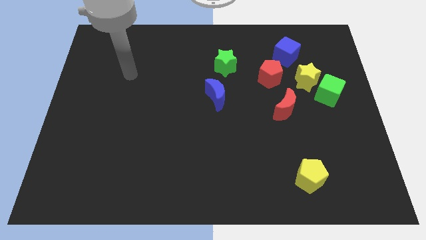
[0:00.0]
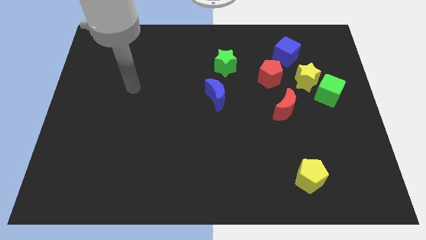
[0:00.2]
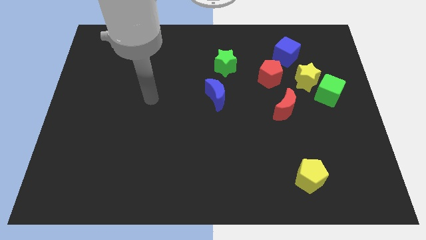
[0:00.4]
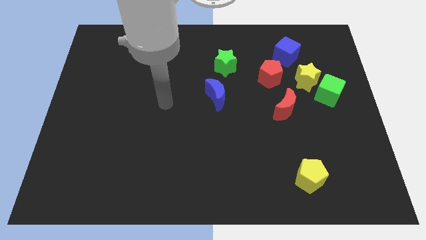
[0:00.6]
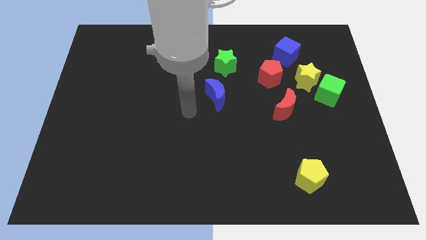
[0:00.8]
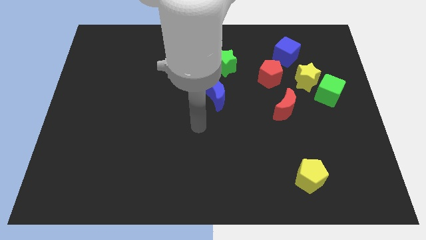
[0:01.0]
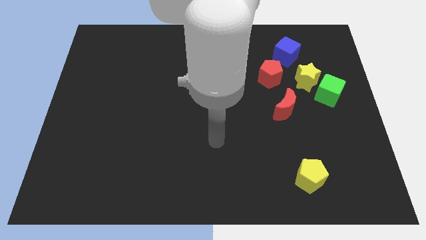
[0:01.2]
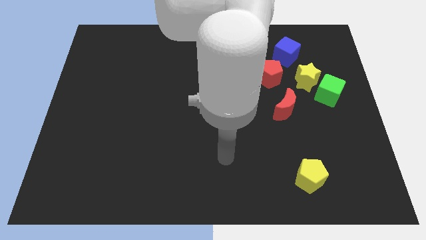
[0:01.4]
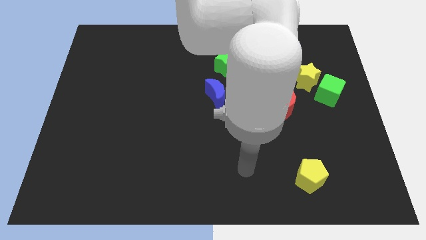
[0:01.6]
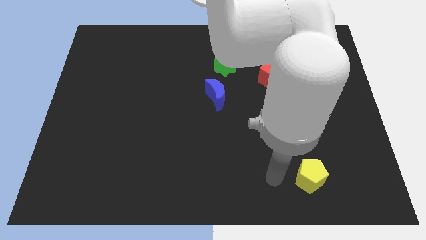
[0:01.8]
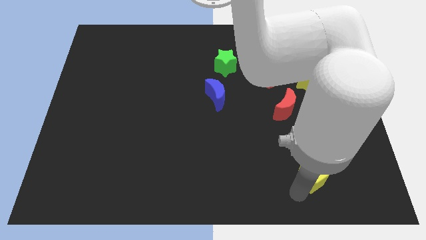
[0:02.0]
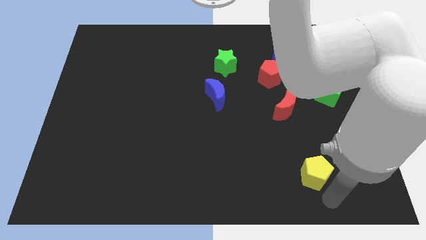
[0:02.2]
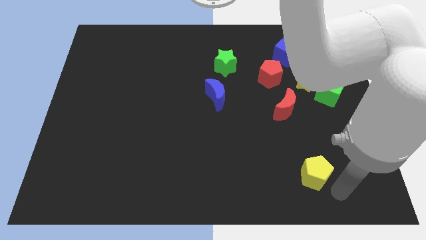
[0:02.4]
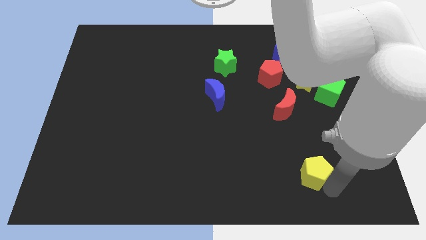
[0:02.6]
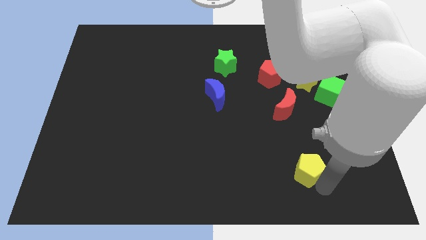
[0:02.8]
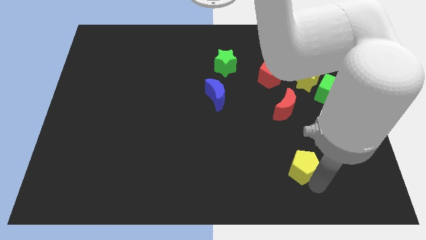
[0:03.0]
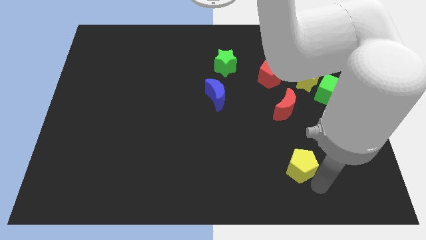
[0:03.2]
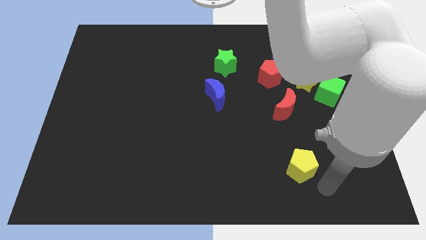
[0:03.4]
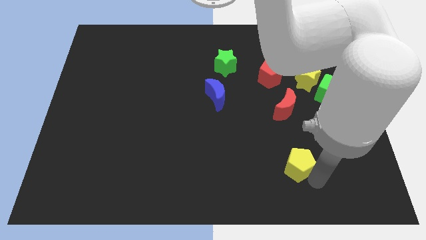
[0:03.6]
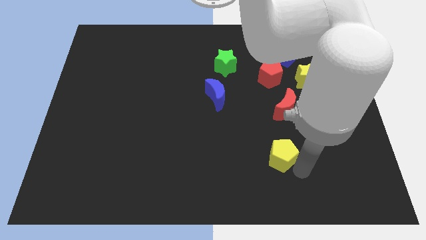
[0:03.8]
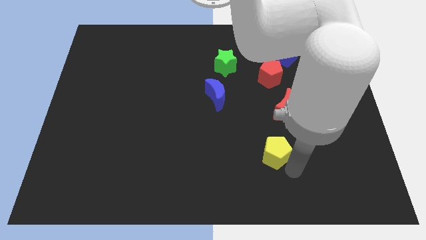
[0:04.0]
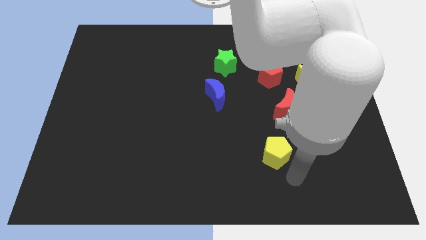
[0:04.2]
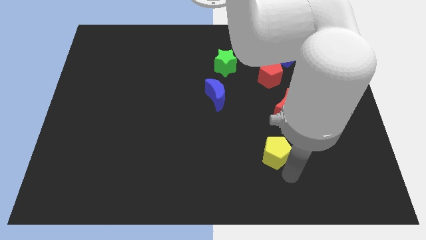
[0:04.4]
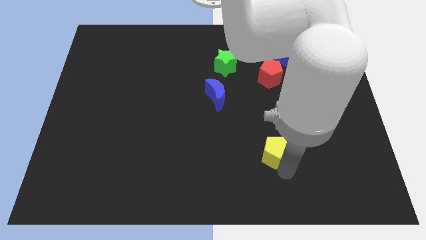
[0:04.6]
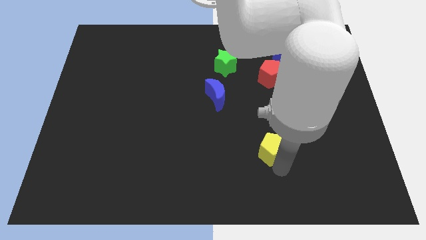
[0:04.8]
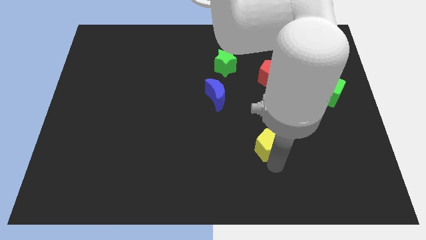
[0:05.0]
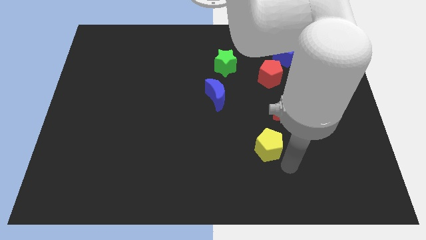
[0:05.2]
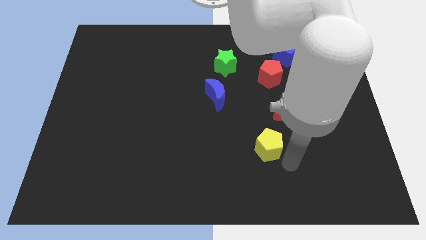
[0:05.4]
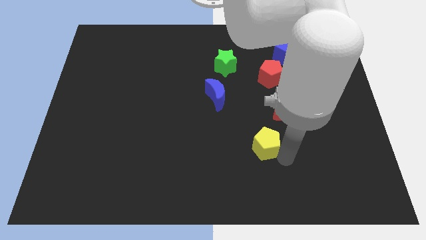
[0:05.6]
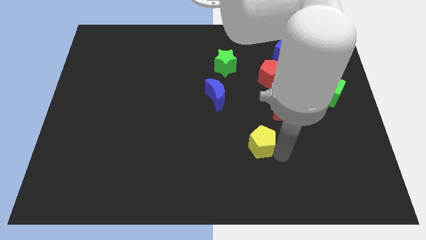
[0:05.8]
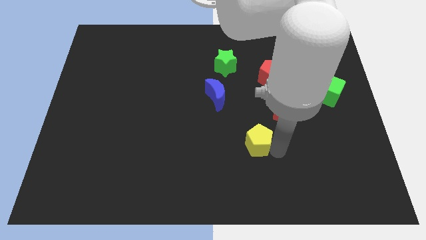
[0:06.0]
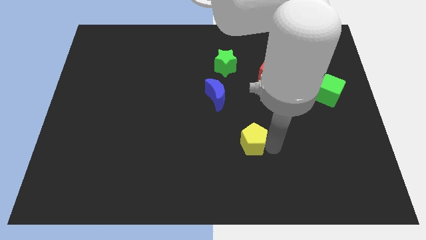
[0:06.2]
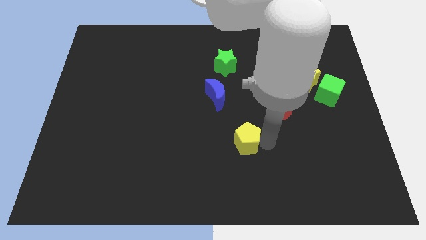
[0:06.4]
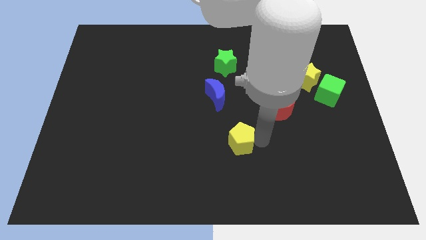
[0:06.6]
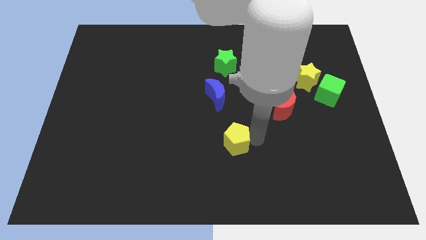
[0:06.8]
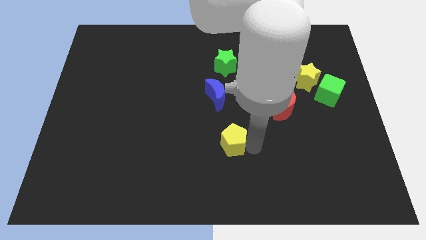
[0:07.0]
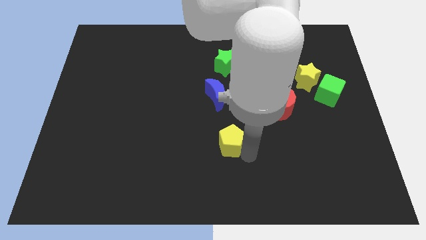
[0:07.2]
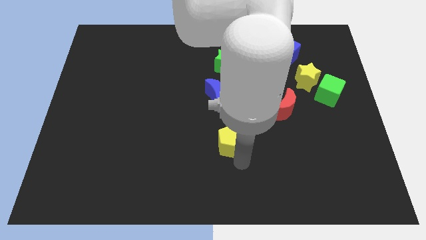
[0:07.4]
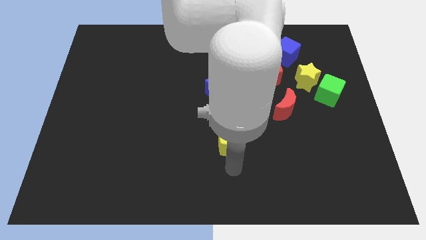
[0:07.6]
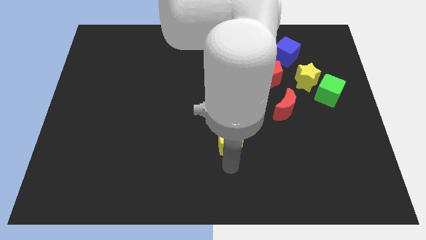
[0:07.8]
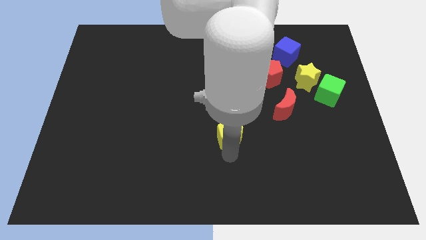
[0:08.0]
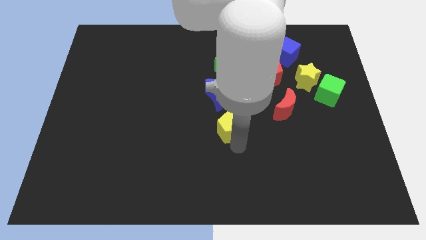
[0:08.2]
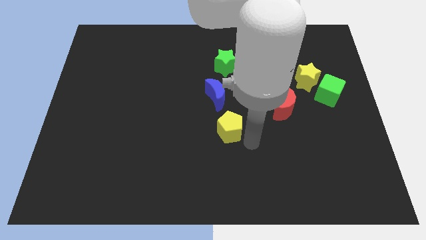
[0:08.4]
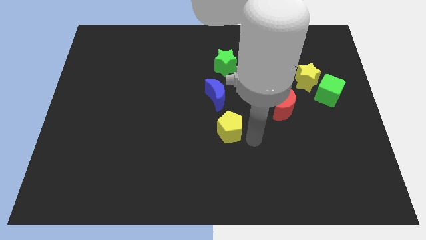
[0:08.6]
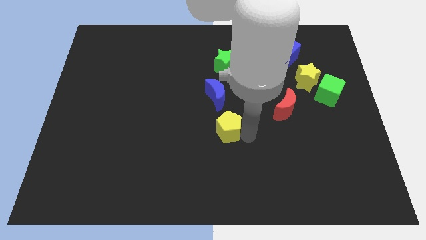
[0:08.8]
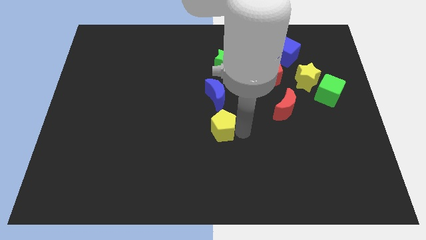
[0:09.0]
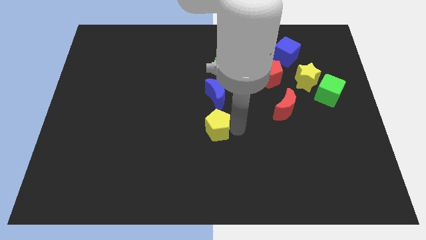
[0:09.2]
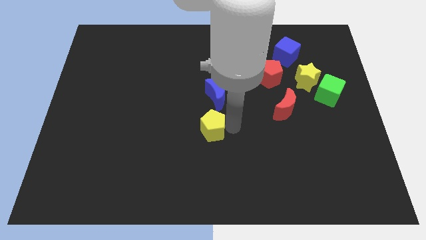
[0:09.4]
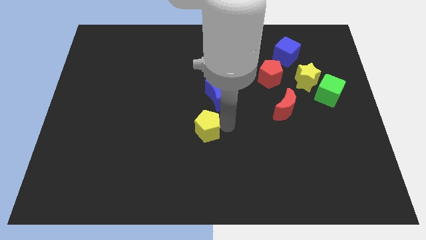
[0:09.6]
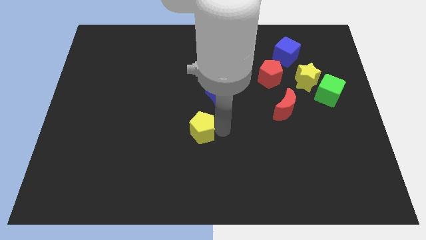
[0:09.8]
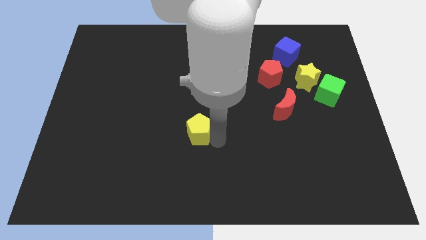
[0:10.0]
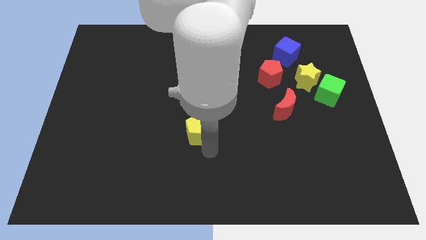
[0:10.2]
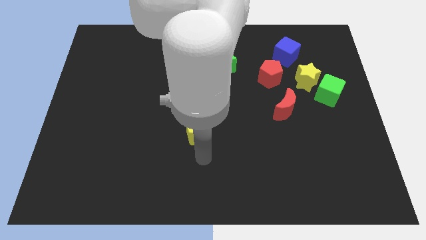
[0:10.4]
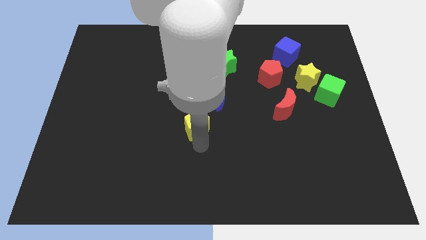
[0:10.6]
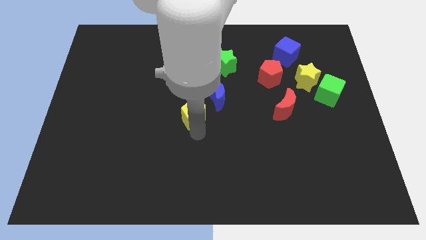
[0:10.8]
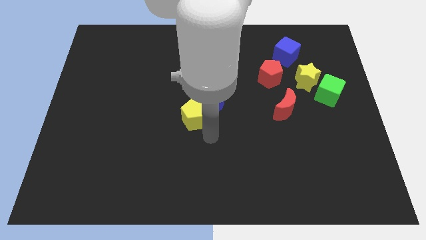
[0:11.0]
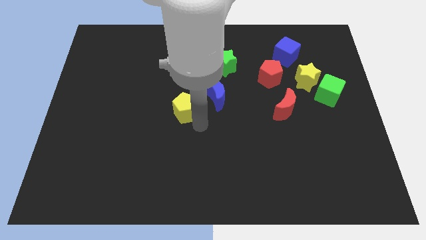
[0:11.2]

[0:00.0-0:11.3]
slide the yellow pentagon left of the blue moon

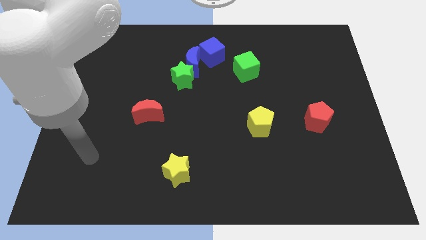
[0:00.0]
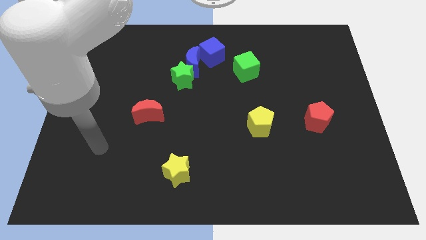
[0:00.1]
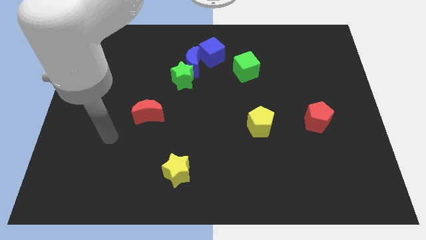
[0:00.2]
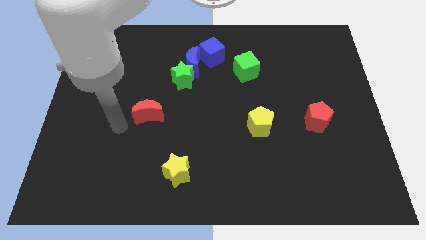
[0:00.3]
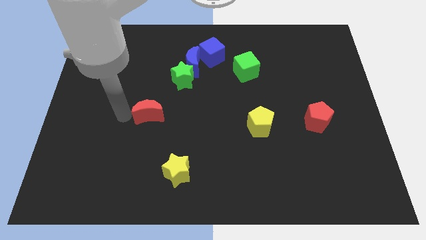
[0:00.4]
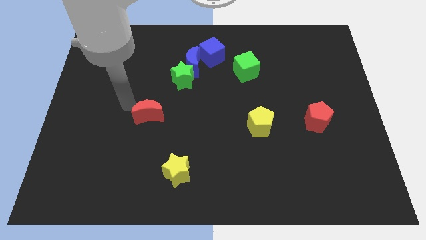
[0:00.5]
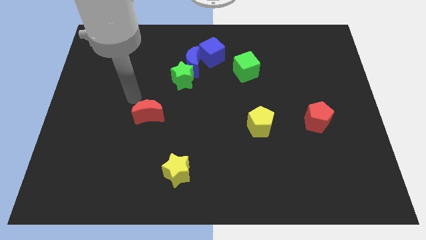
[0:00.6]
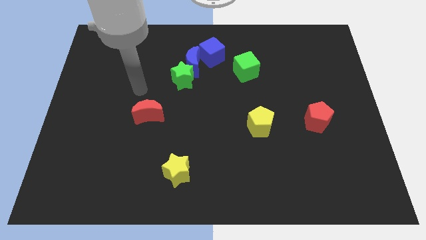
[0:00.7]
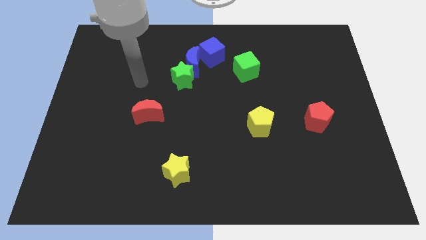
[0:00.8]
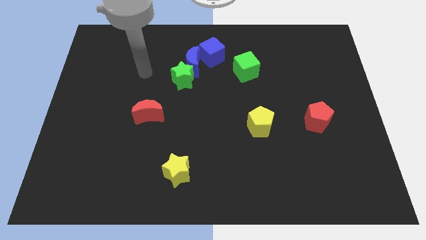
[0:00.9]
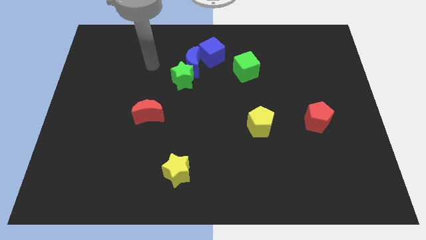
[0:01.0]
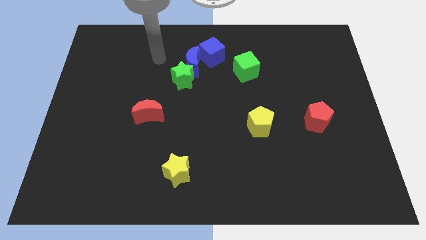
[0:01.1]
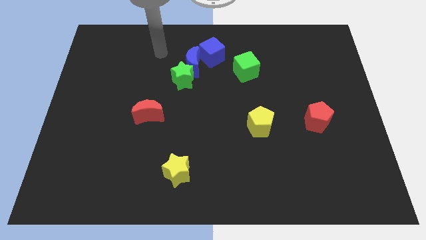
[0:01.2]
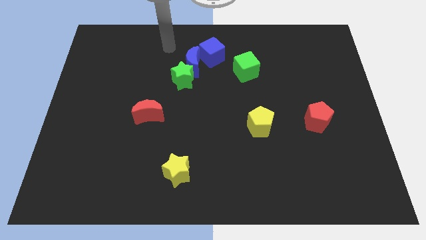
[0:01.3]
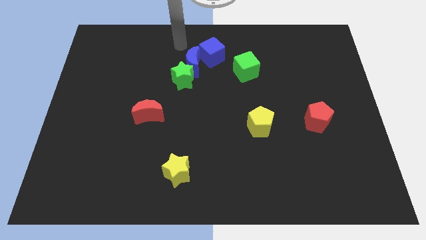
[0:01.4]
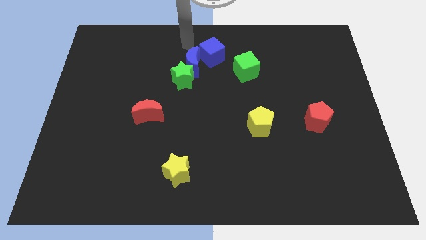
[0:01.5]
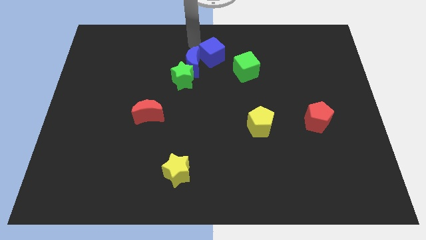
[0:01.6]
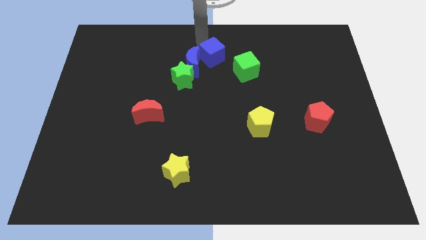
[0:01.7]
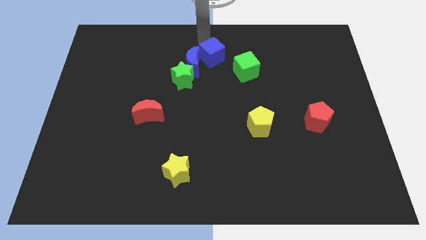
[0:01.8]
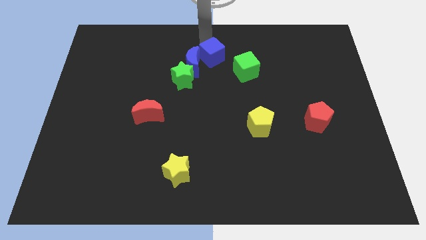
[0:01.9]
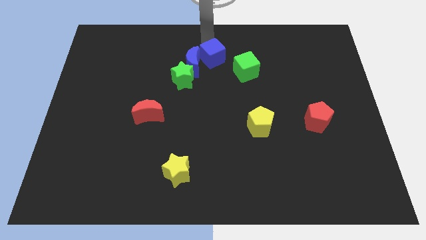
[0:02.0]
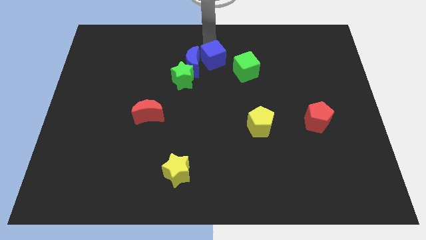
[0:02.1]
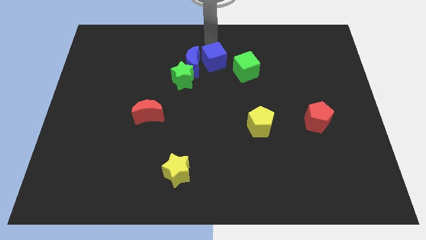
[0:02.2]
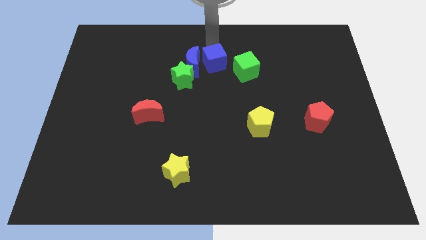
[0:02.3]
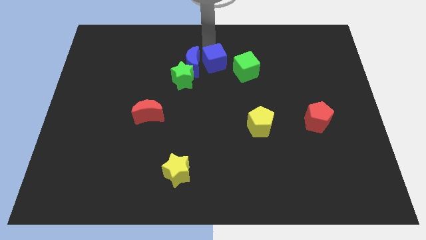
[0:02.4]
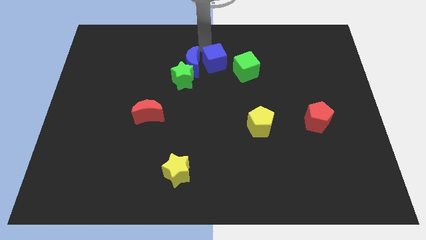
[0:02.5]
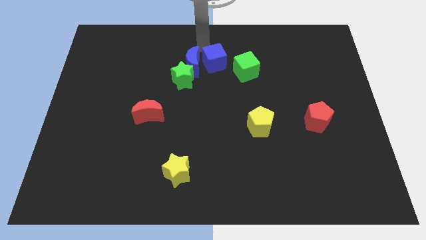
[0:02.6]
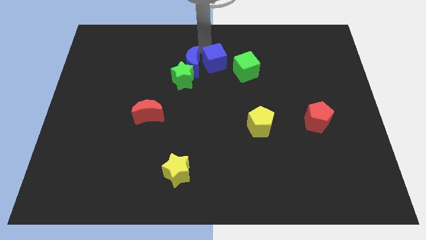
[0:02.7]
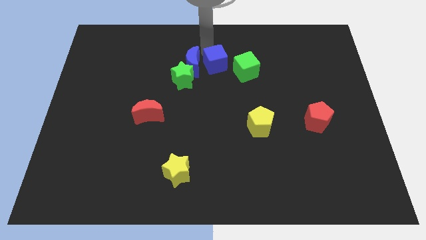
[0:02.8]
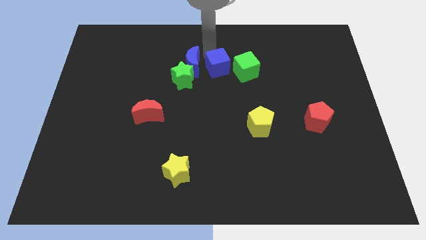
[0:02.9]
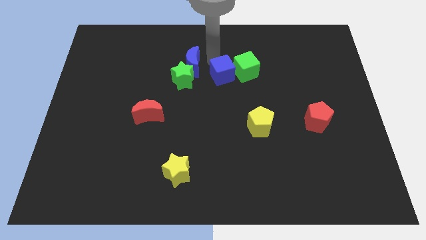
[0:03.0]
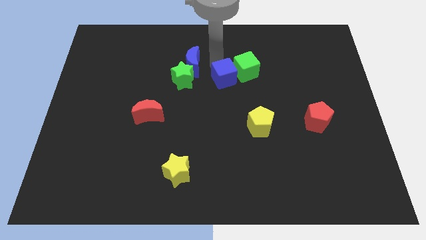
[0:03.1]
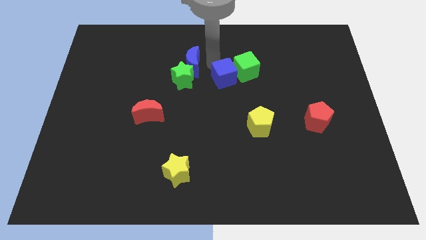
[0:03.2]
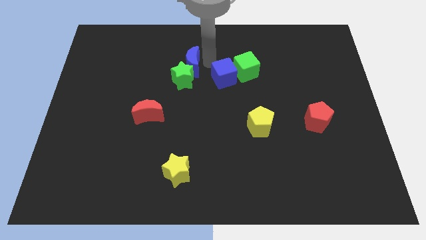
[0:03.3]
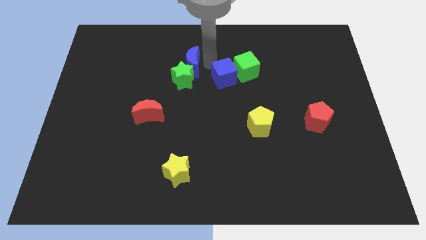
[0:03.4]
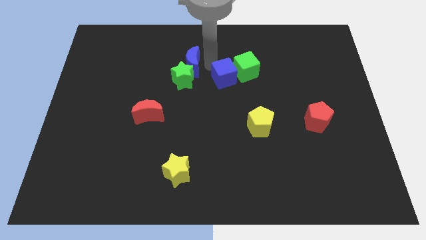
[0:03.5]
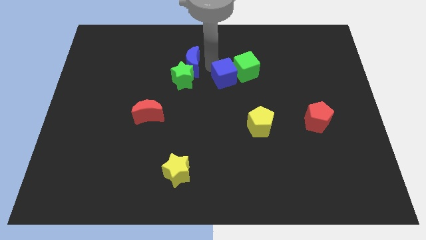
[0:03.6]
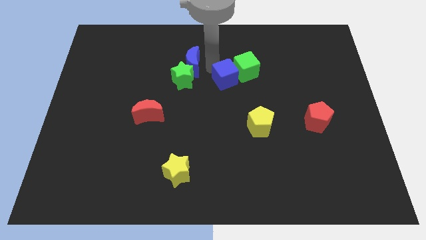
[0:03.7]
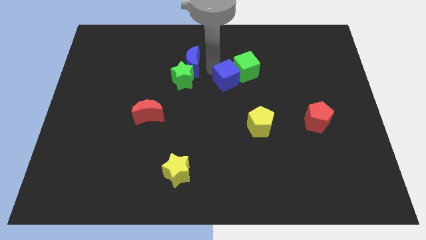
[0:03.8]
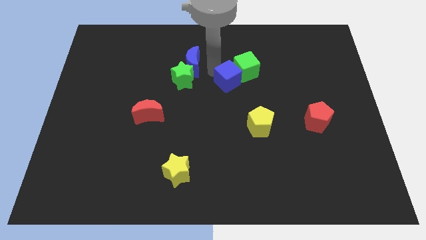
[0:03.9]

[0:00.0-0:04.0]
move the blue cube to the bottom side of the green cube
